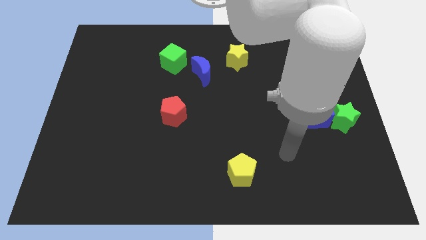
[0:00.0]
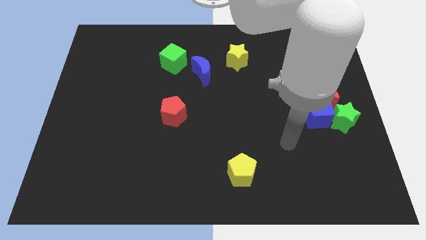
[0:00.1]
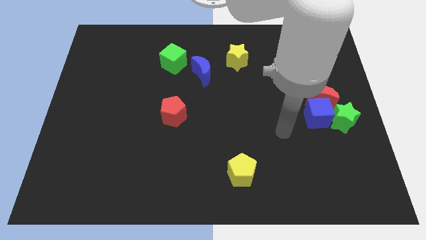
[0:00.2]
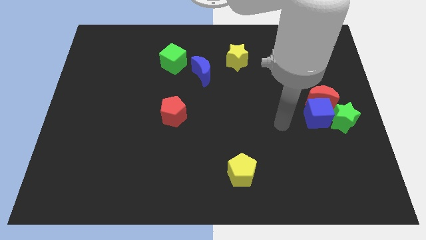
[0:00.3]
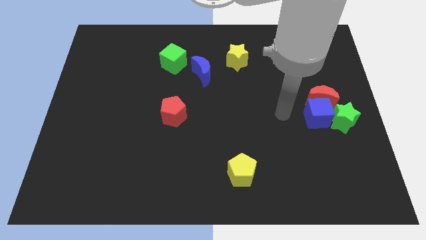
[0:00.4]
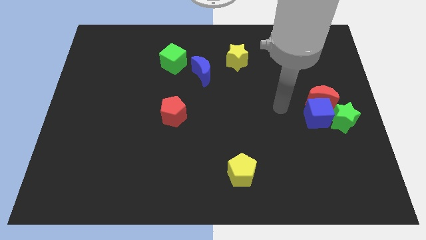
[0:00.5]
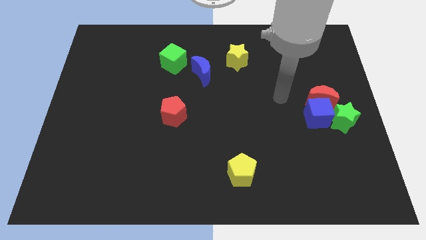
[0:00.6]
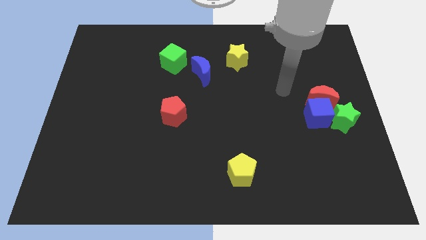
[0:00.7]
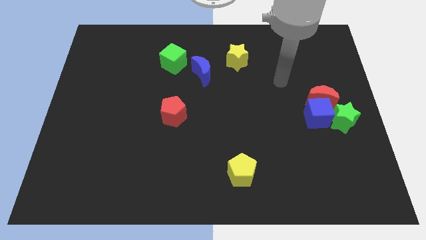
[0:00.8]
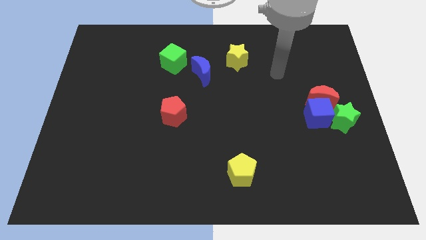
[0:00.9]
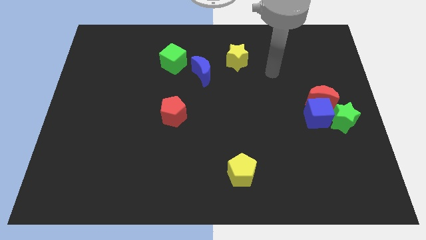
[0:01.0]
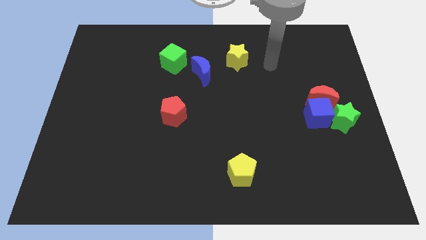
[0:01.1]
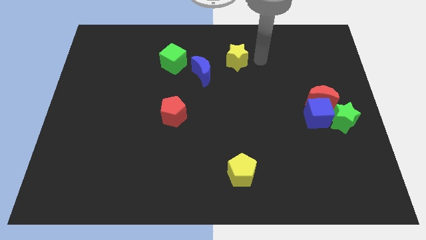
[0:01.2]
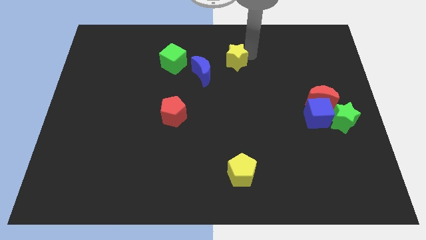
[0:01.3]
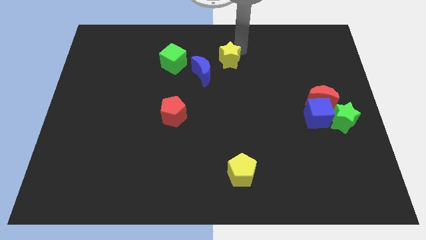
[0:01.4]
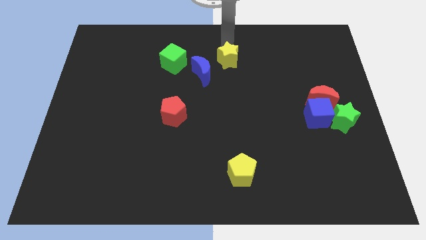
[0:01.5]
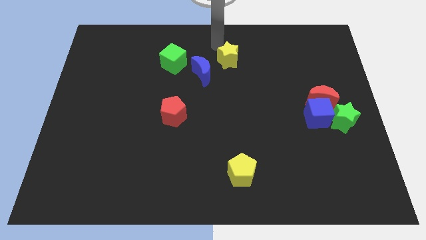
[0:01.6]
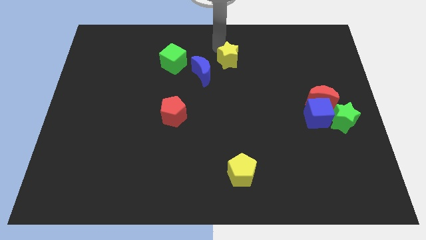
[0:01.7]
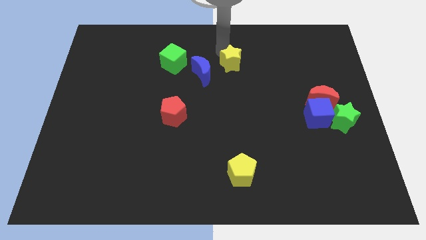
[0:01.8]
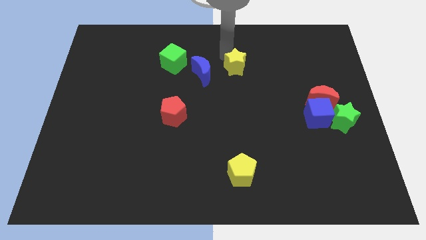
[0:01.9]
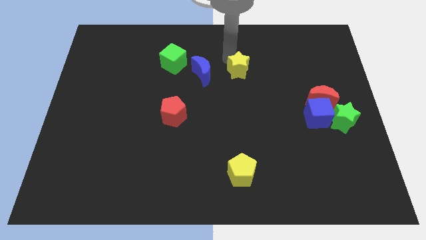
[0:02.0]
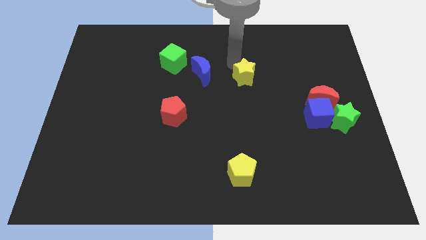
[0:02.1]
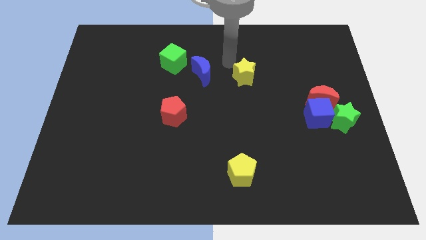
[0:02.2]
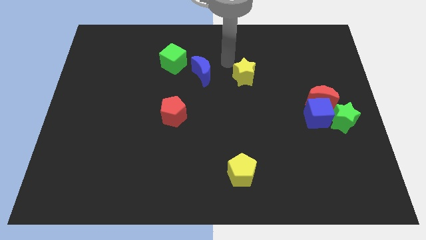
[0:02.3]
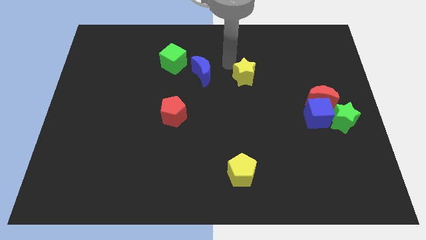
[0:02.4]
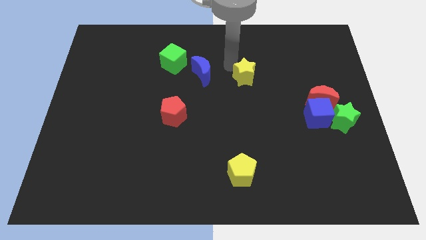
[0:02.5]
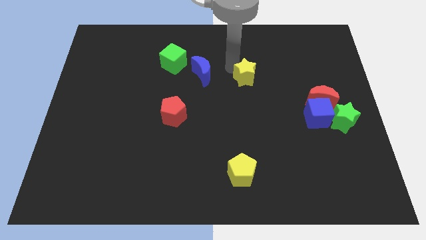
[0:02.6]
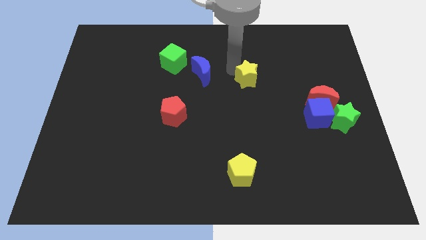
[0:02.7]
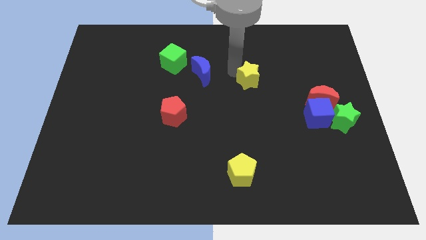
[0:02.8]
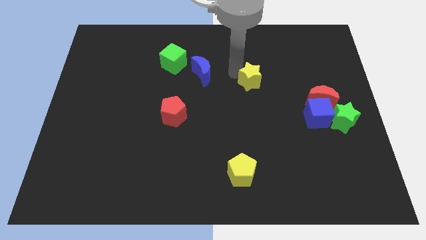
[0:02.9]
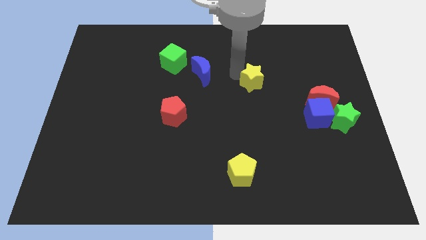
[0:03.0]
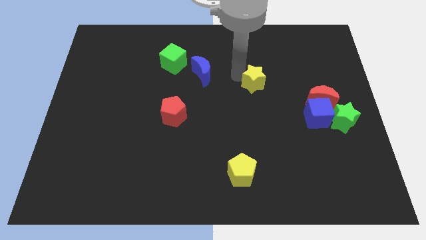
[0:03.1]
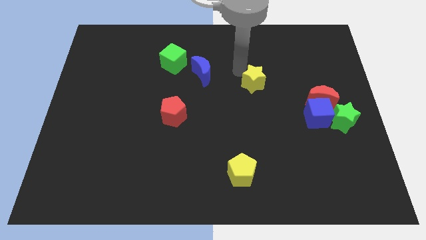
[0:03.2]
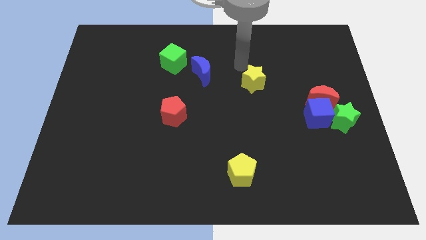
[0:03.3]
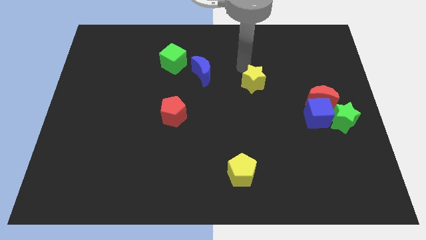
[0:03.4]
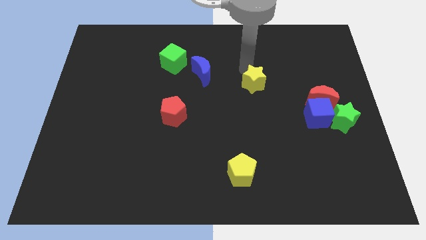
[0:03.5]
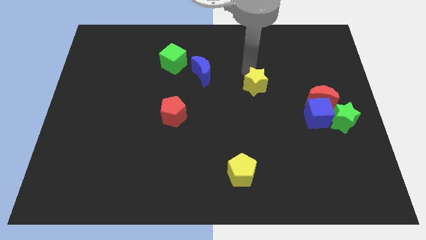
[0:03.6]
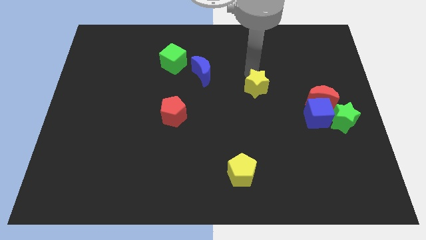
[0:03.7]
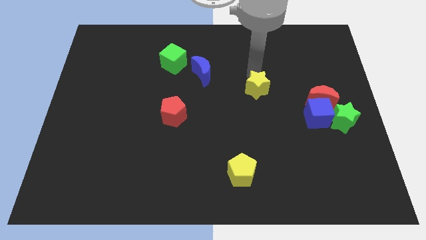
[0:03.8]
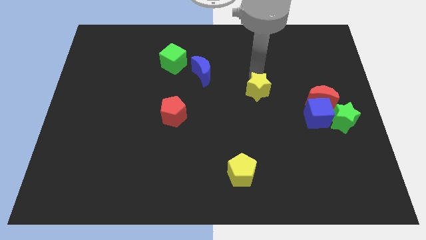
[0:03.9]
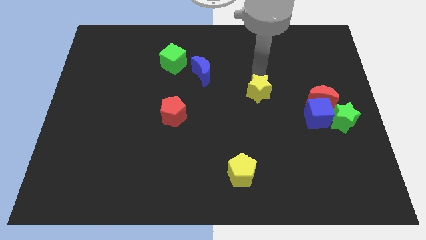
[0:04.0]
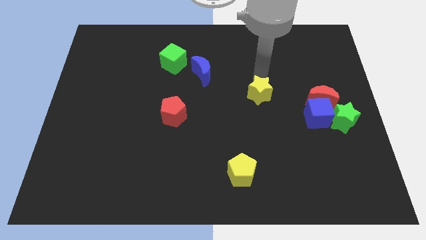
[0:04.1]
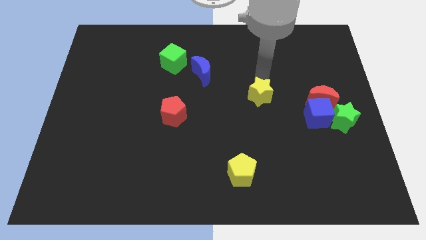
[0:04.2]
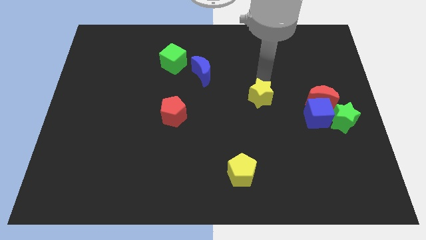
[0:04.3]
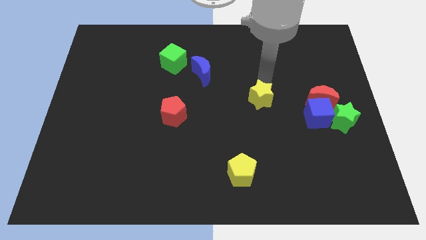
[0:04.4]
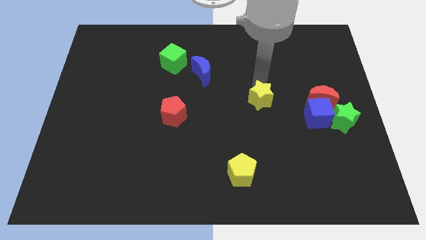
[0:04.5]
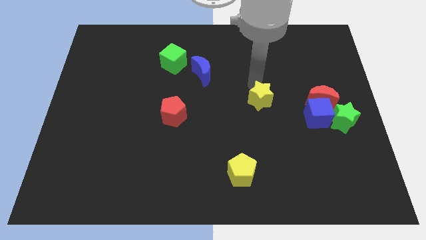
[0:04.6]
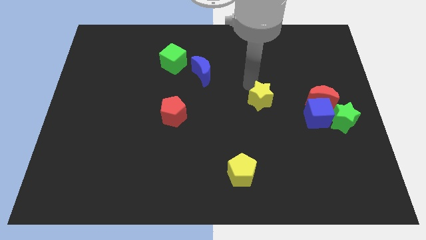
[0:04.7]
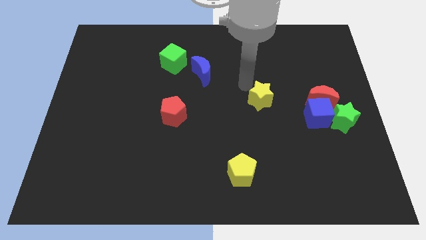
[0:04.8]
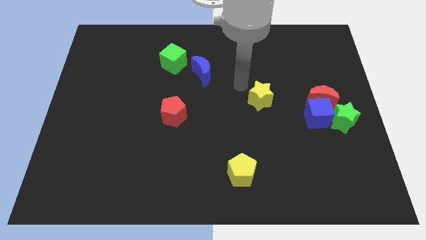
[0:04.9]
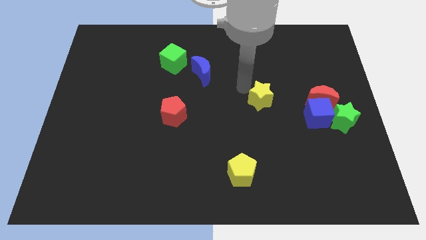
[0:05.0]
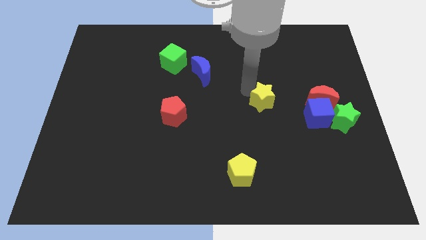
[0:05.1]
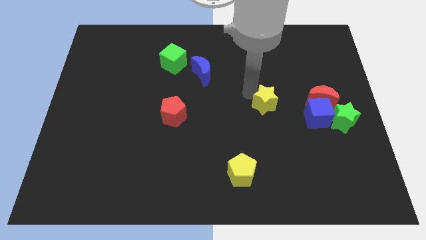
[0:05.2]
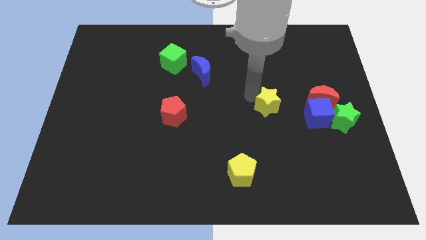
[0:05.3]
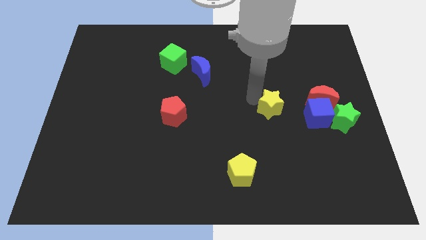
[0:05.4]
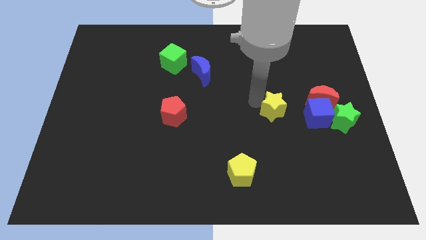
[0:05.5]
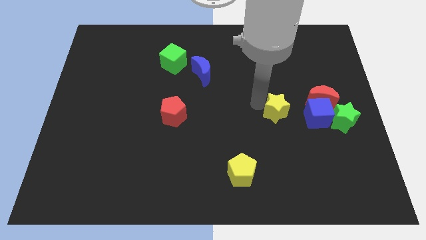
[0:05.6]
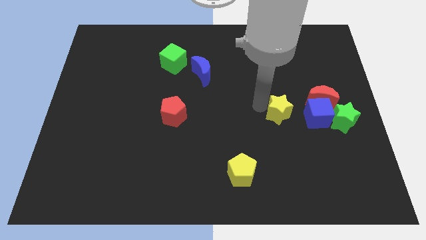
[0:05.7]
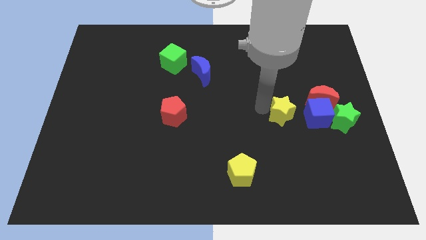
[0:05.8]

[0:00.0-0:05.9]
move the yellow star to the bottom left side of the red moon

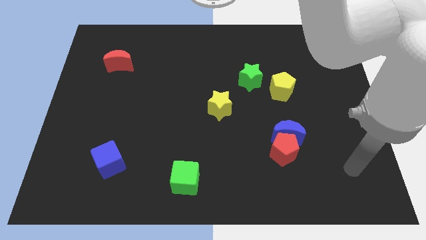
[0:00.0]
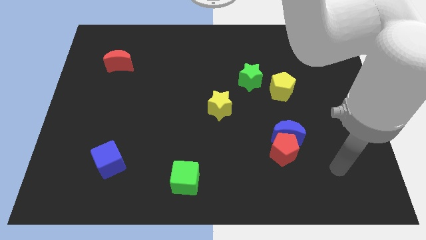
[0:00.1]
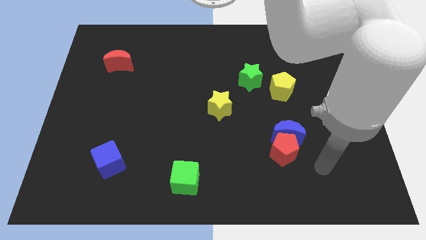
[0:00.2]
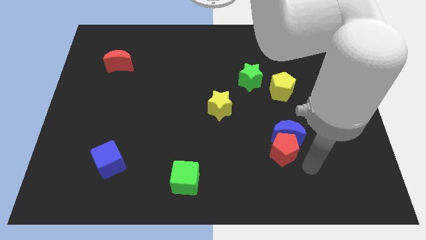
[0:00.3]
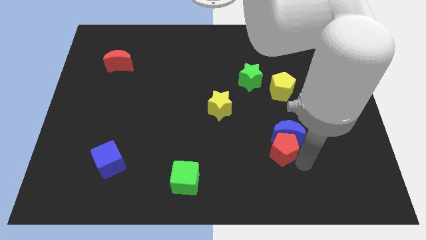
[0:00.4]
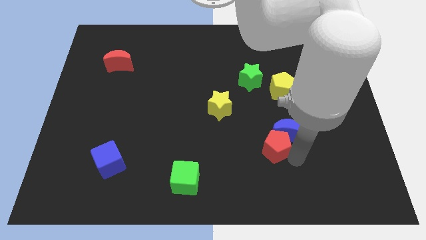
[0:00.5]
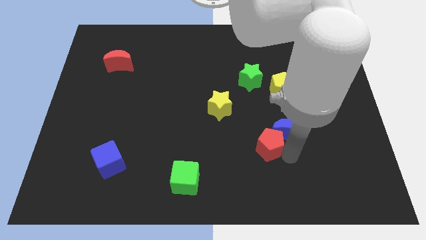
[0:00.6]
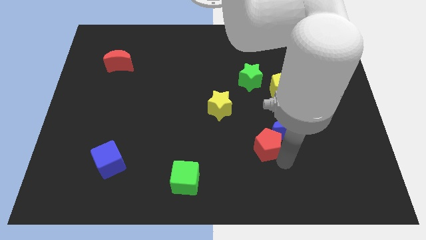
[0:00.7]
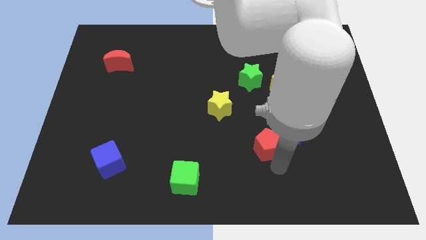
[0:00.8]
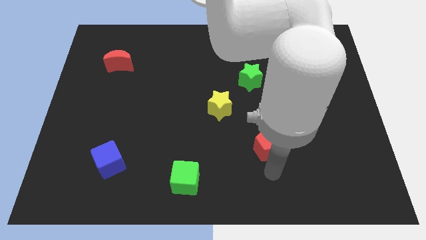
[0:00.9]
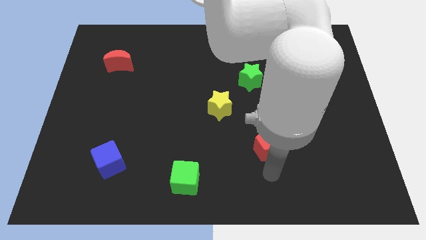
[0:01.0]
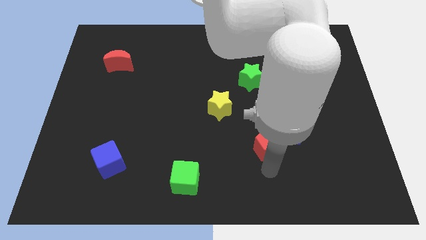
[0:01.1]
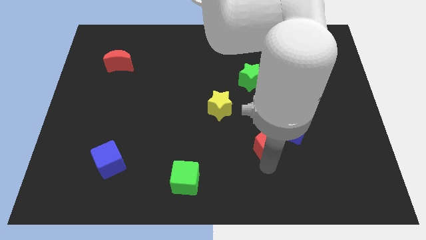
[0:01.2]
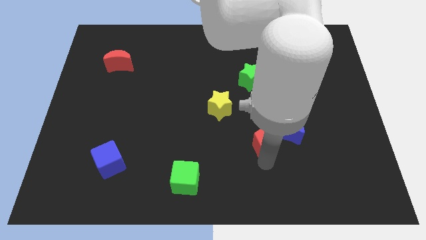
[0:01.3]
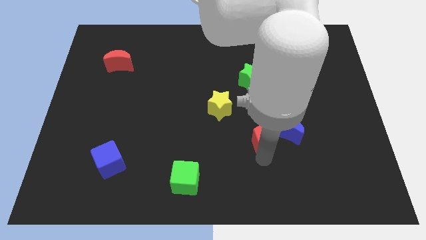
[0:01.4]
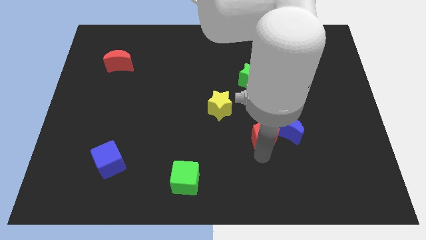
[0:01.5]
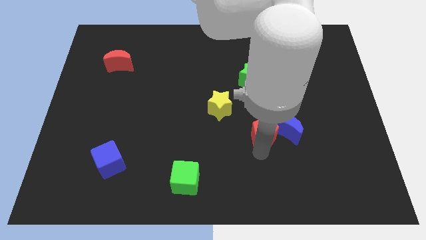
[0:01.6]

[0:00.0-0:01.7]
push the red pentagon to the top left side of the blue moon
